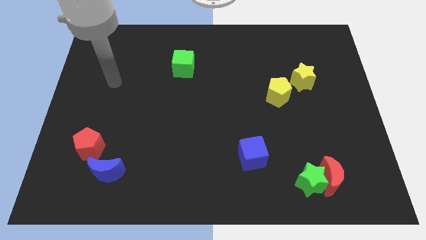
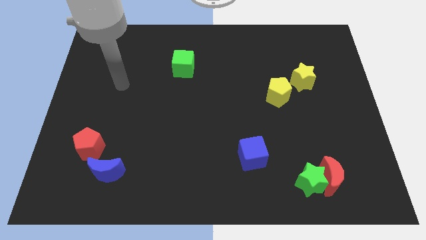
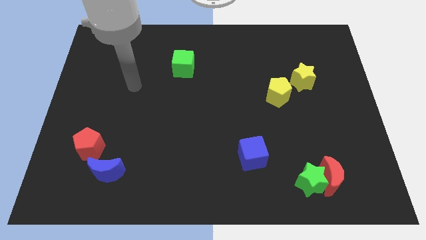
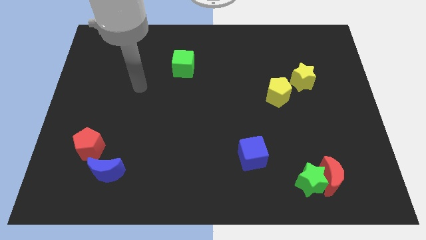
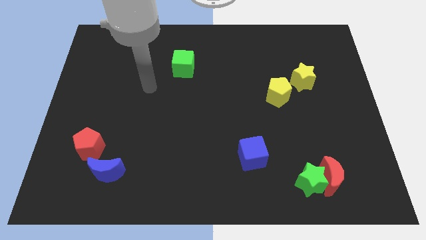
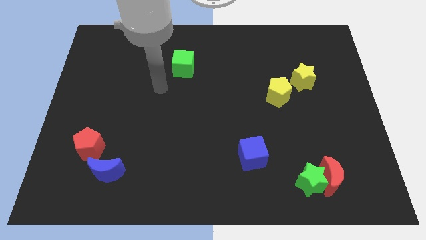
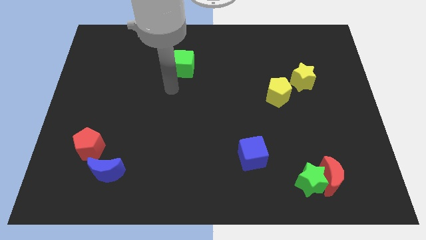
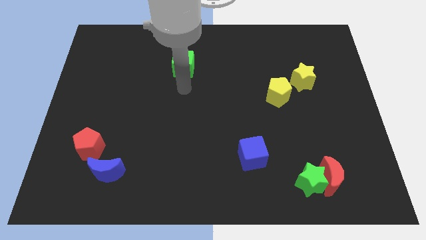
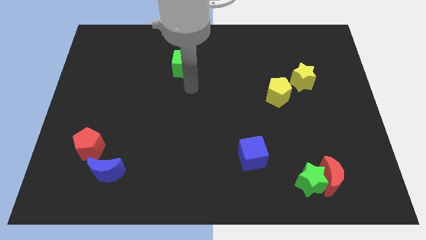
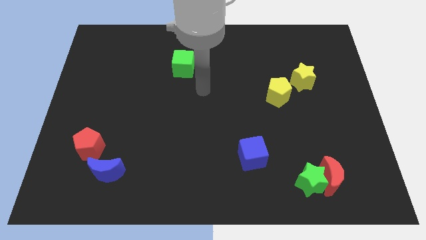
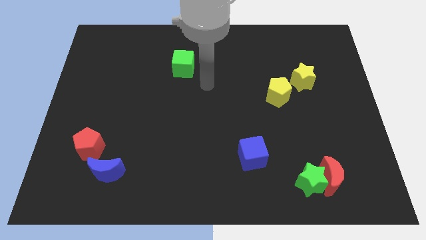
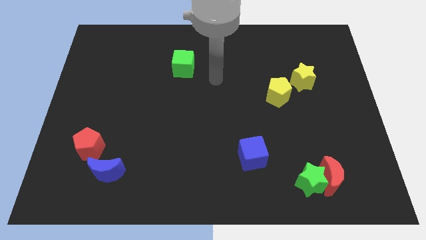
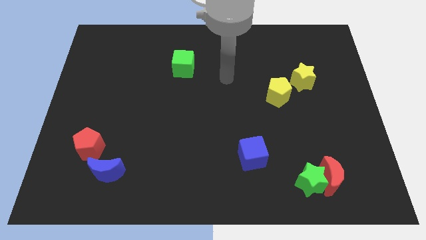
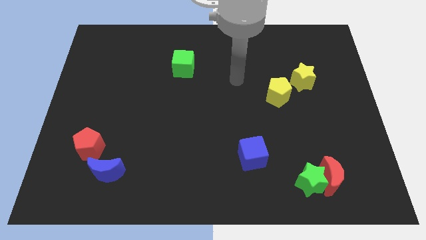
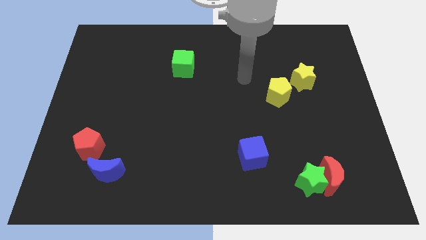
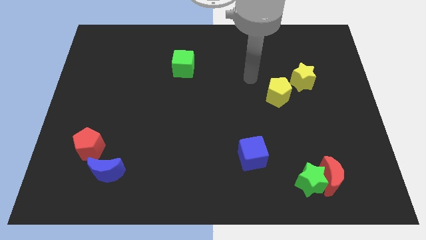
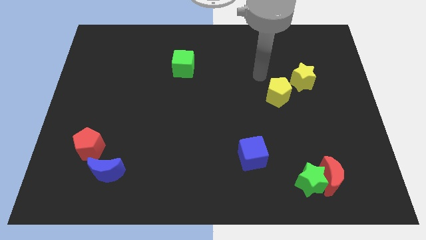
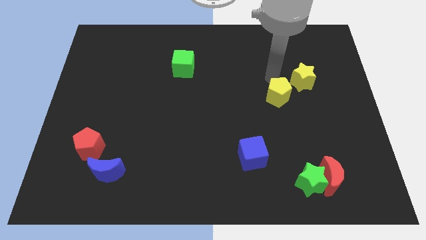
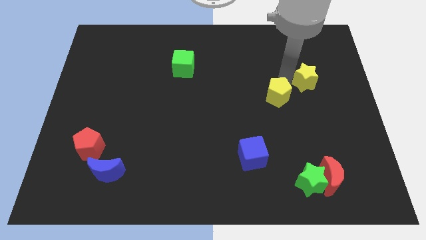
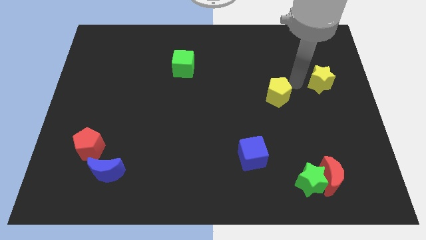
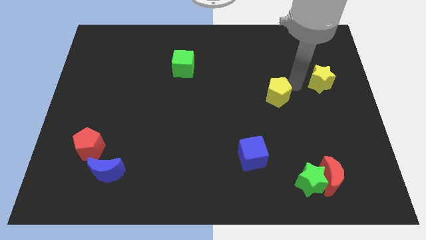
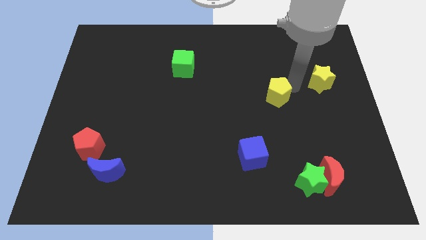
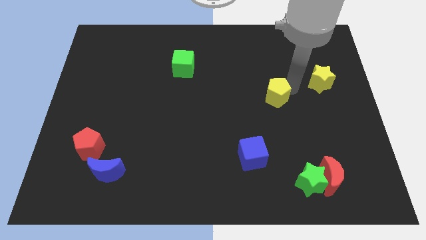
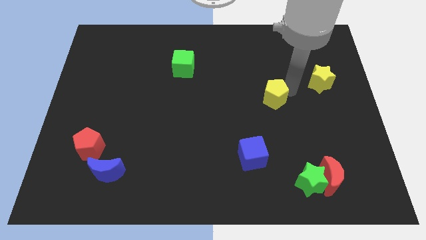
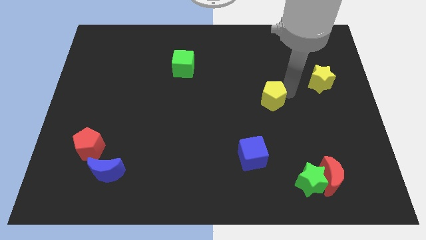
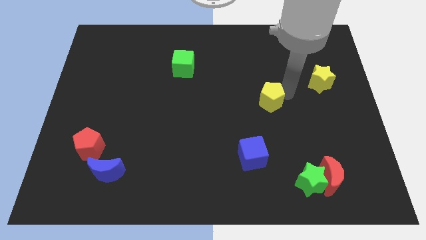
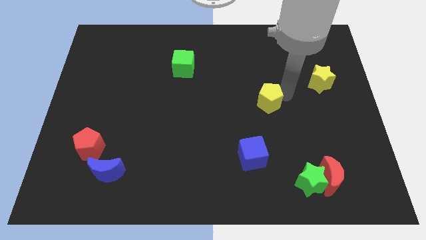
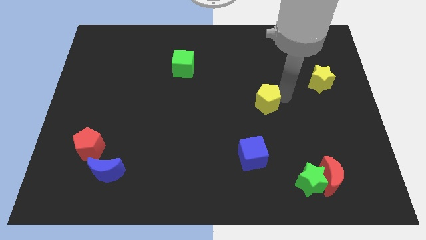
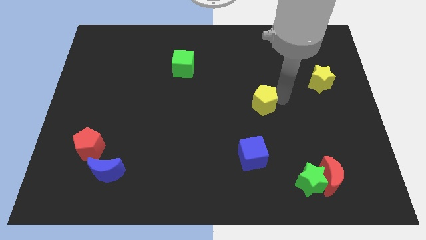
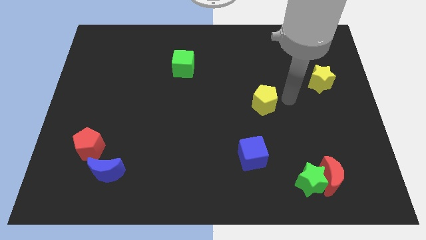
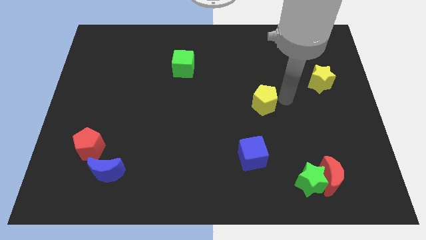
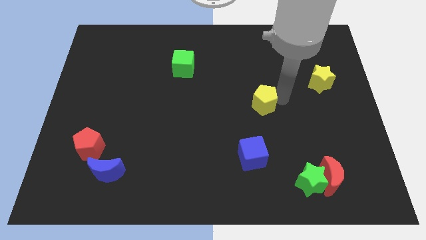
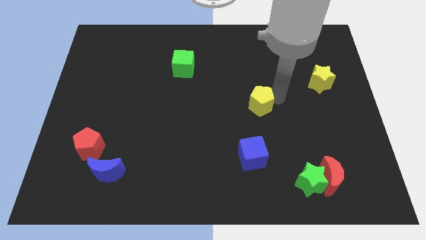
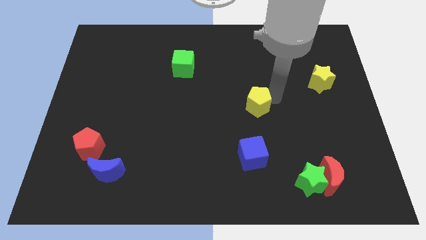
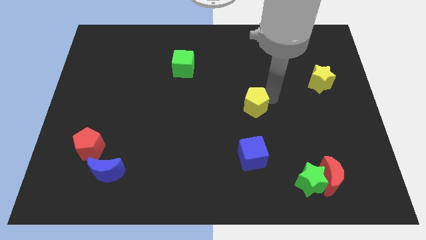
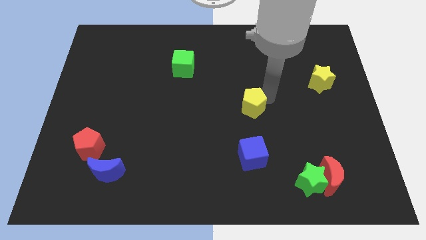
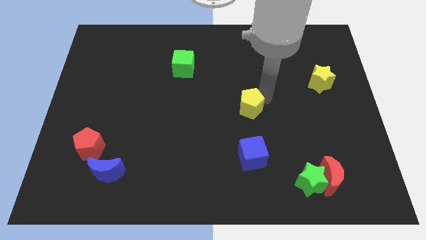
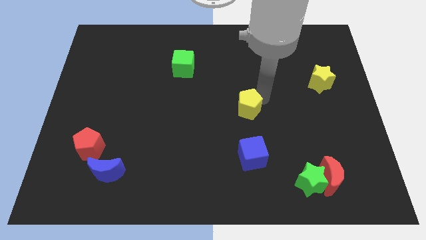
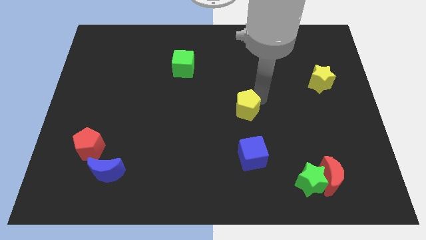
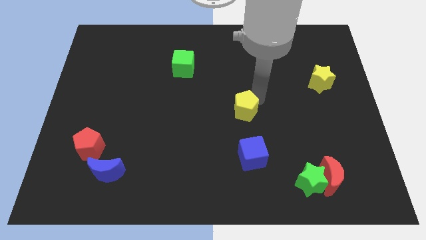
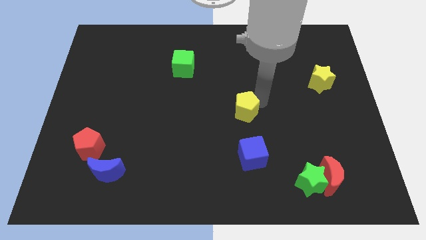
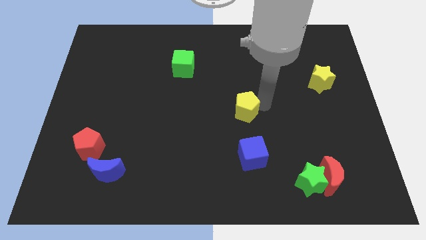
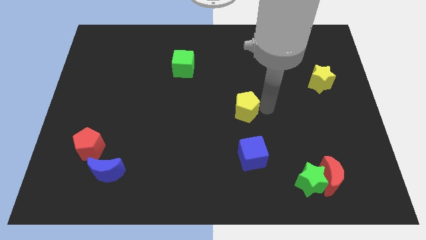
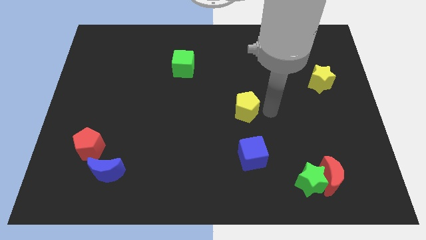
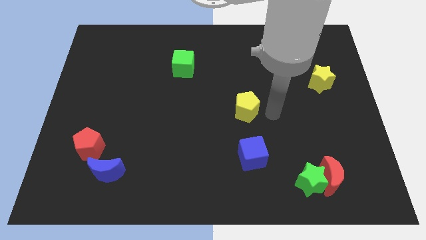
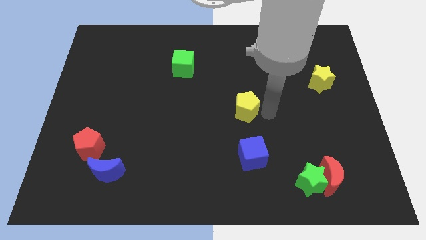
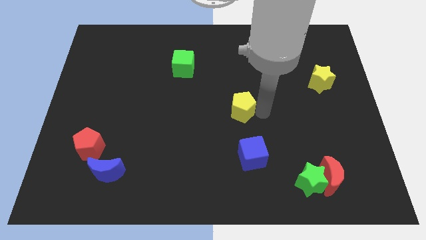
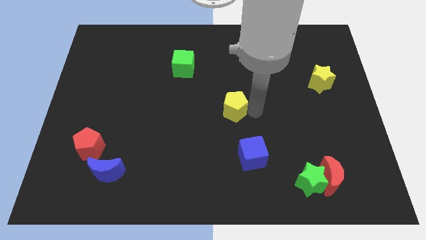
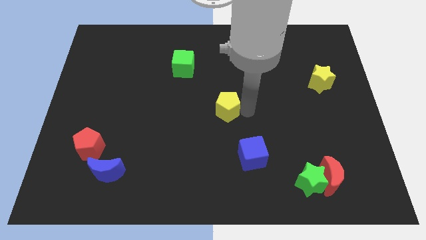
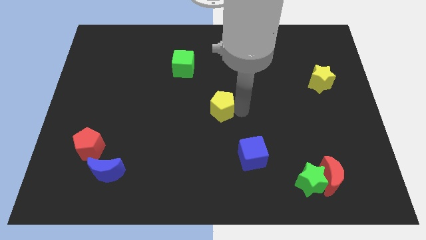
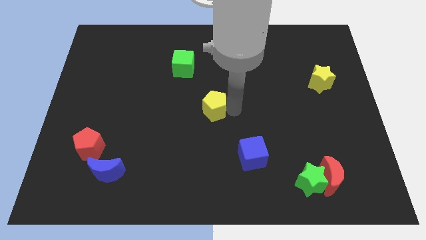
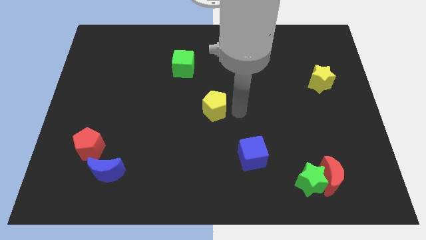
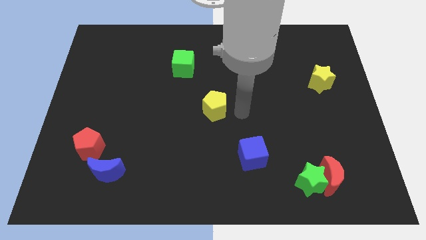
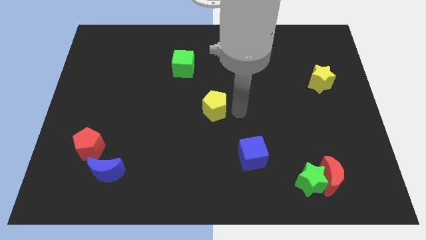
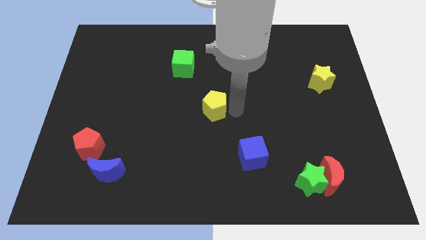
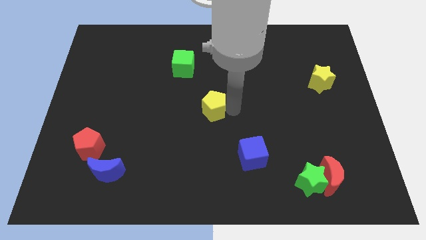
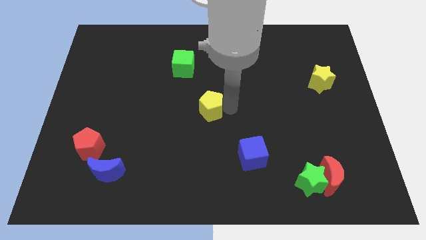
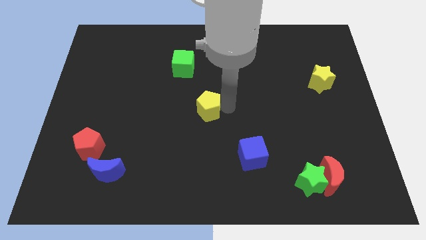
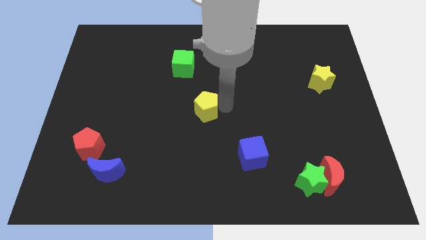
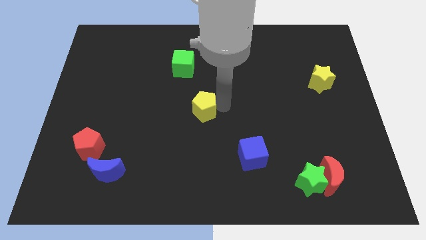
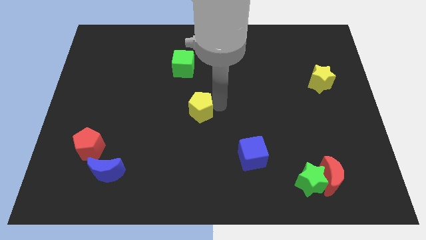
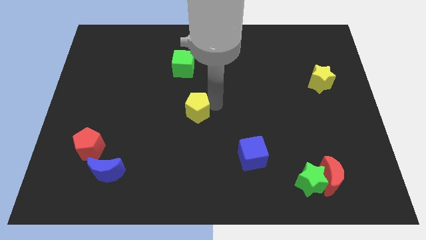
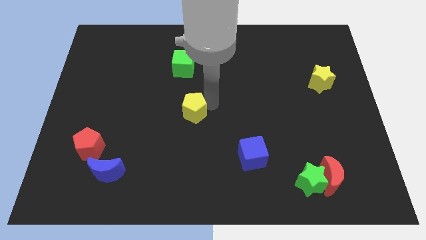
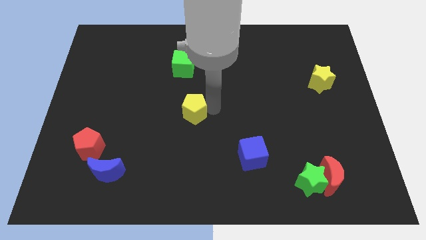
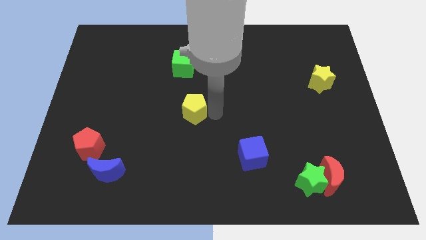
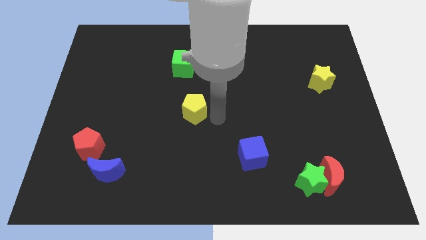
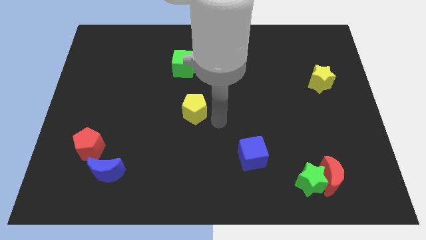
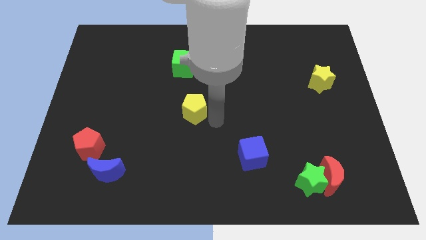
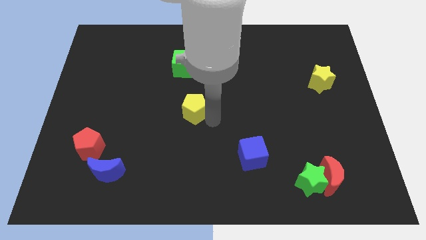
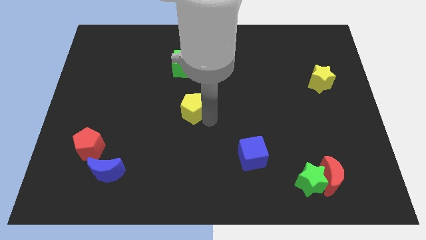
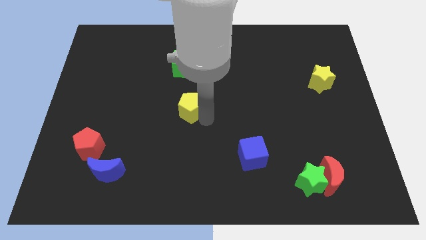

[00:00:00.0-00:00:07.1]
push the yellow pentagon left

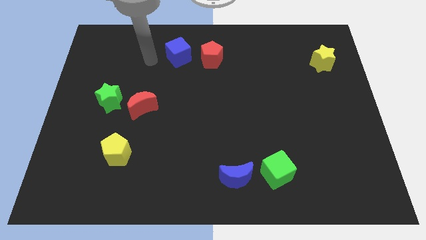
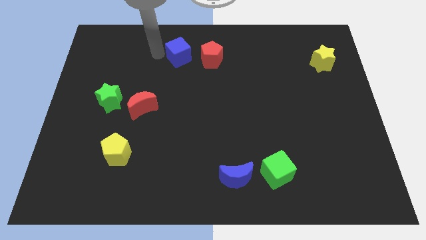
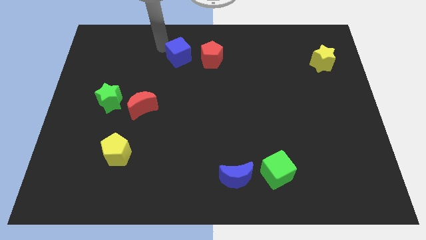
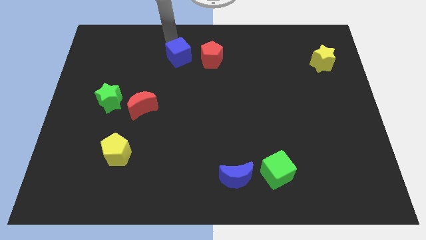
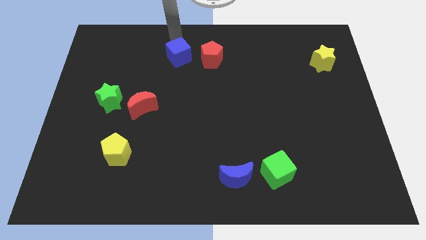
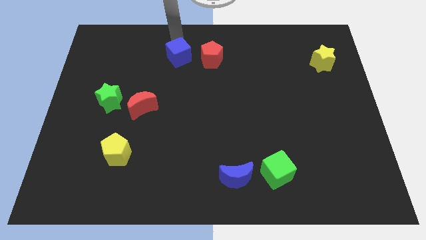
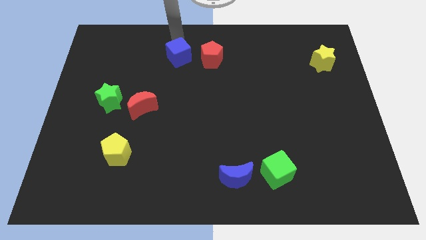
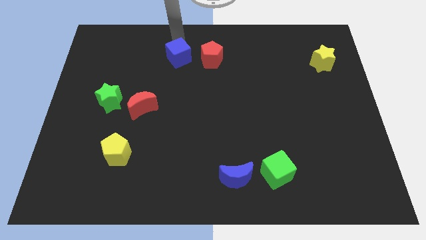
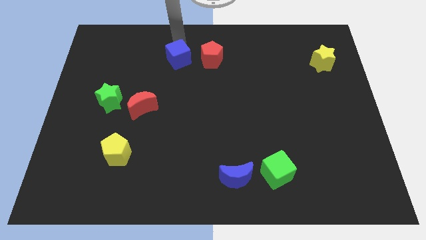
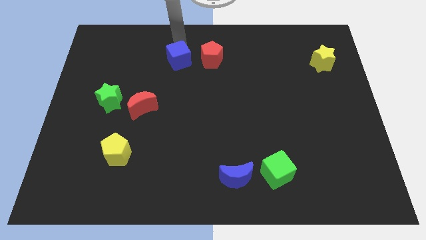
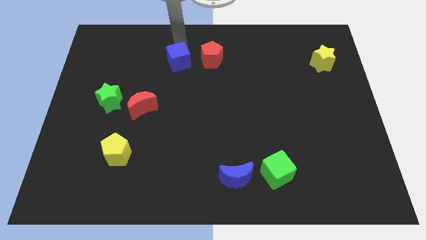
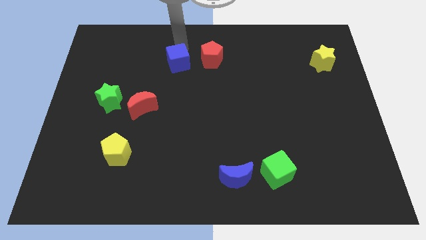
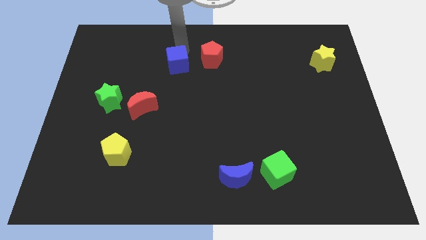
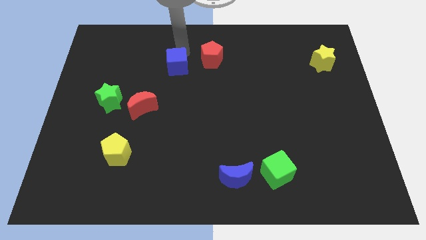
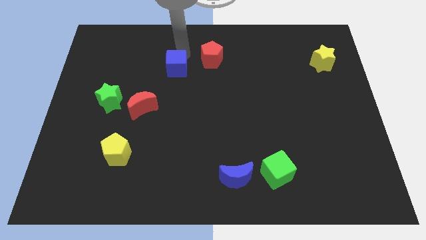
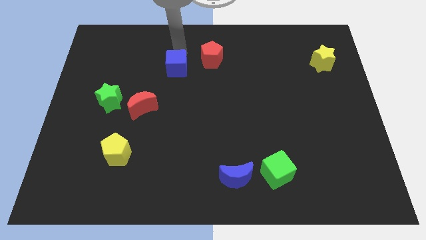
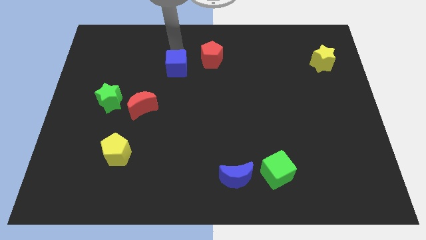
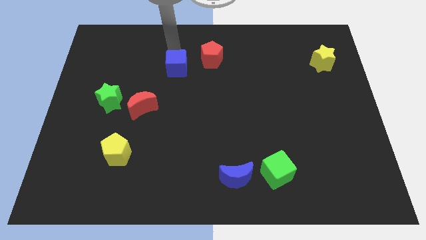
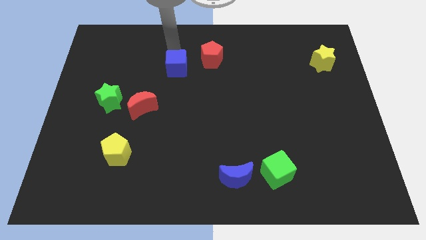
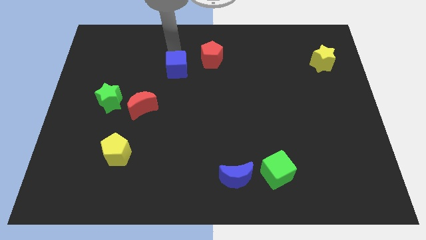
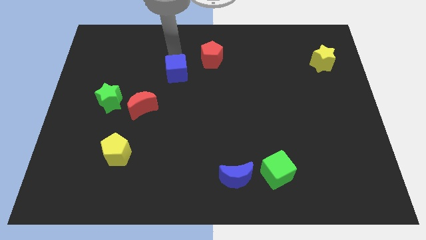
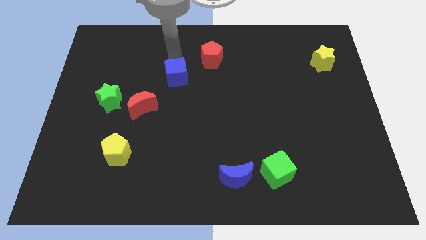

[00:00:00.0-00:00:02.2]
slightly push the blue cube down
